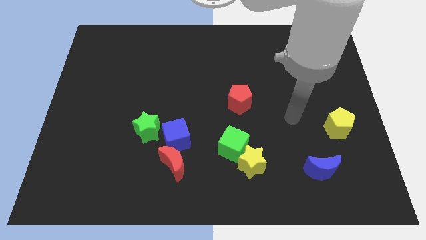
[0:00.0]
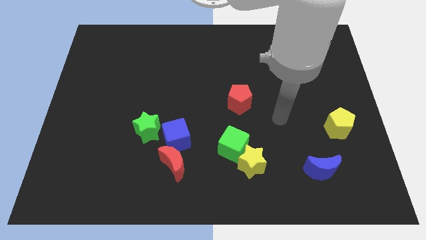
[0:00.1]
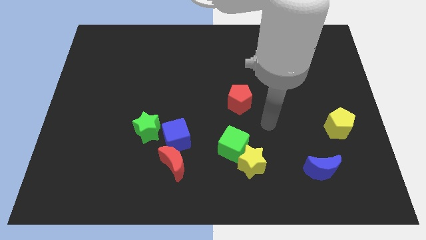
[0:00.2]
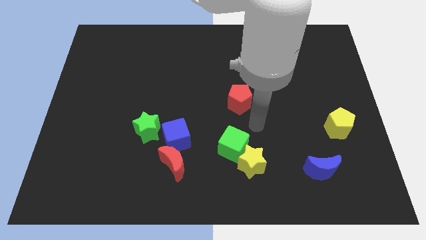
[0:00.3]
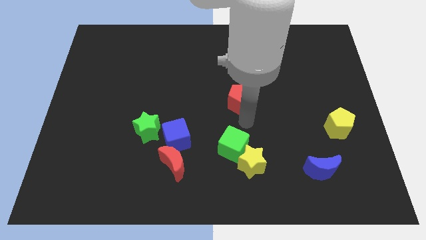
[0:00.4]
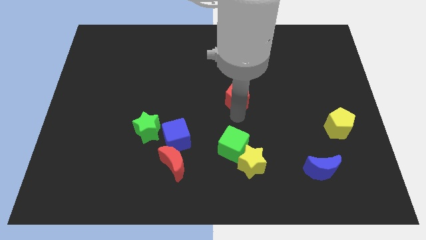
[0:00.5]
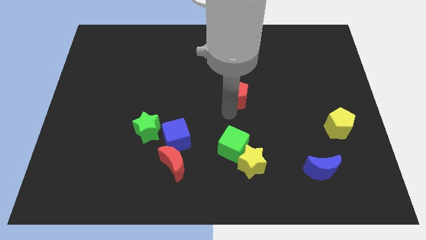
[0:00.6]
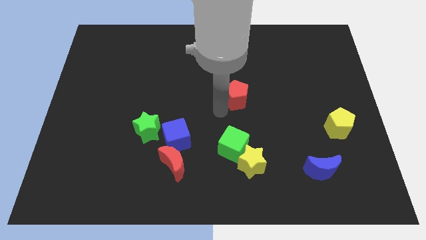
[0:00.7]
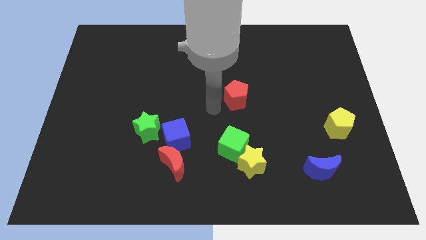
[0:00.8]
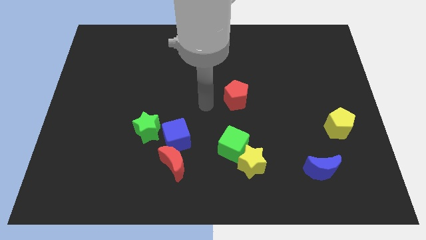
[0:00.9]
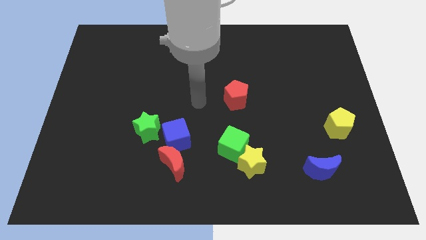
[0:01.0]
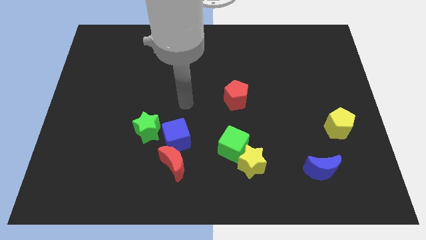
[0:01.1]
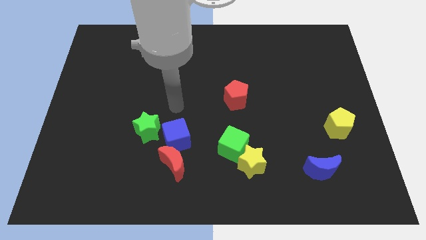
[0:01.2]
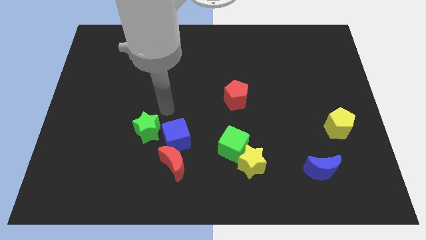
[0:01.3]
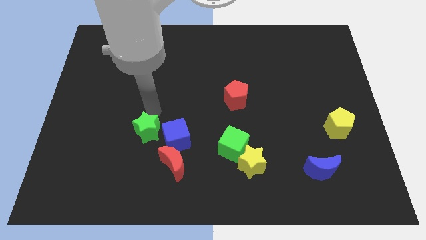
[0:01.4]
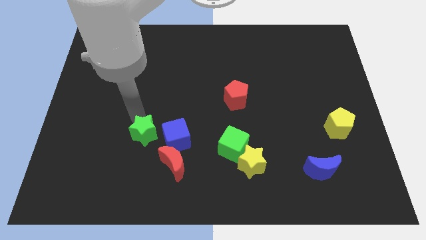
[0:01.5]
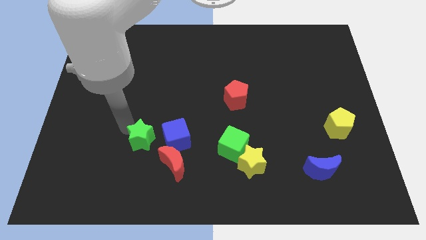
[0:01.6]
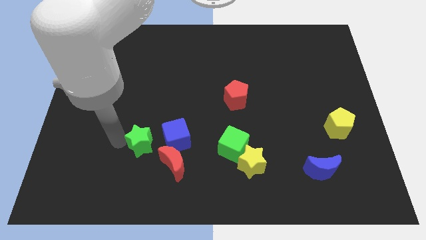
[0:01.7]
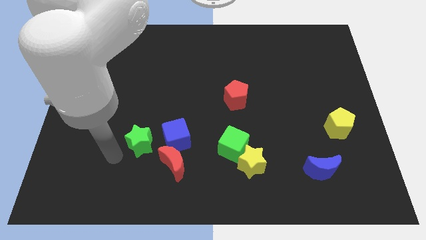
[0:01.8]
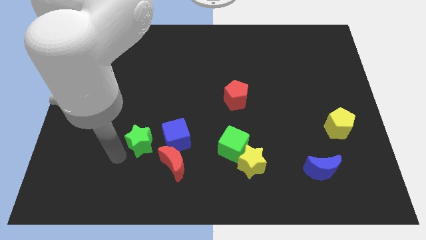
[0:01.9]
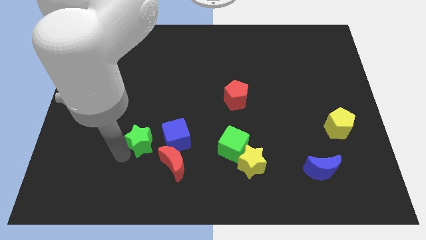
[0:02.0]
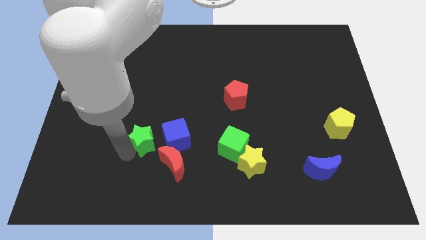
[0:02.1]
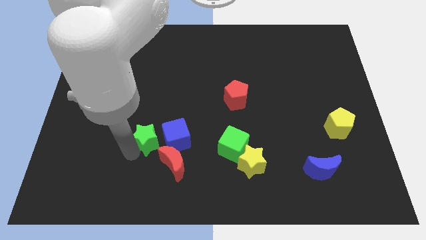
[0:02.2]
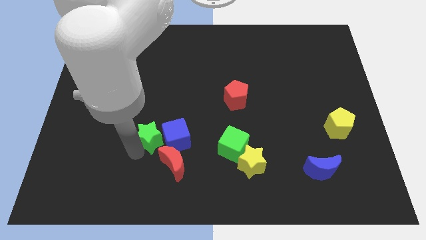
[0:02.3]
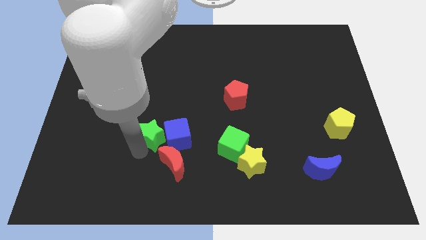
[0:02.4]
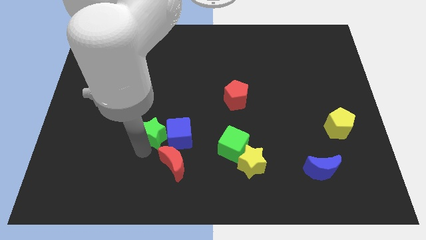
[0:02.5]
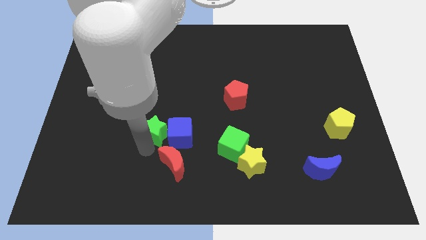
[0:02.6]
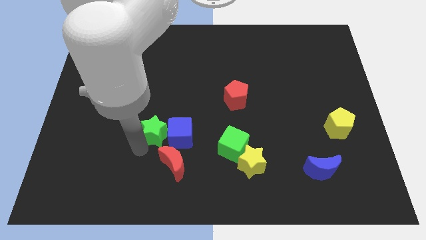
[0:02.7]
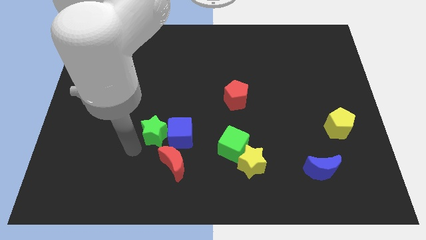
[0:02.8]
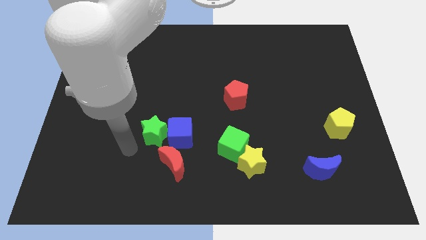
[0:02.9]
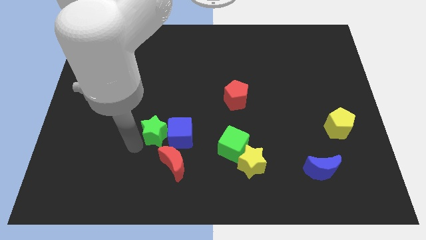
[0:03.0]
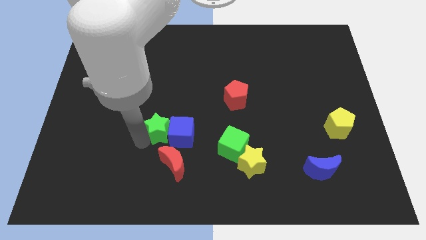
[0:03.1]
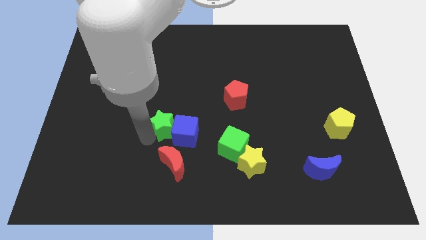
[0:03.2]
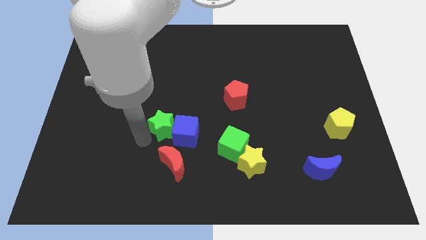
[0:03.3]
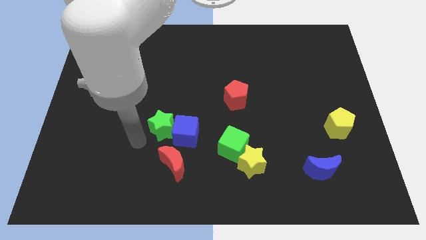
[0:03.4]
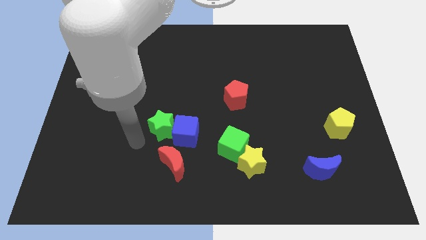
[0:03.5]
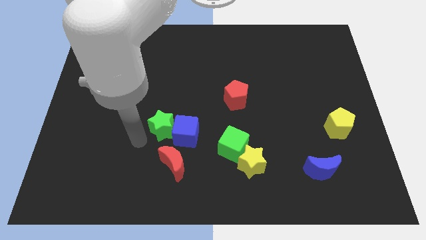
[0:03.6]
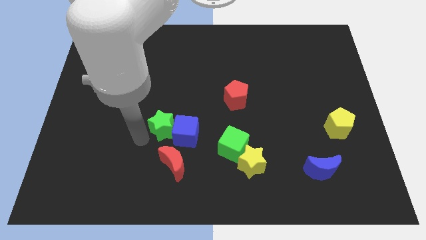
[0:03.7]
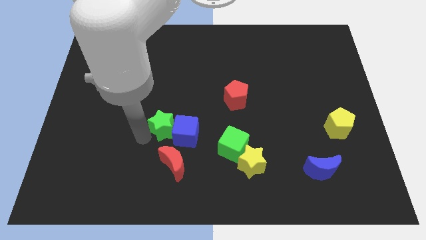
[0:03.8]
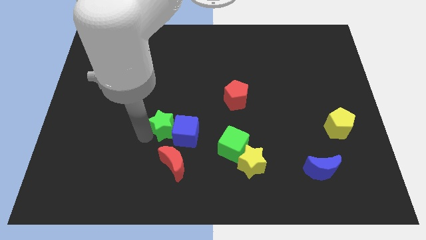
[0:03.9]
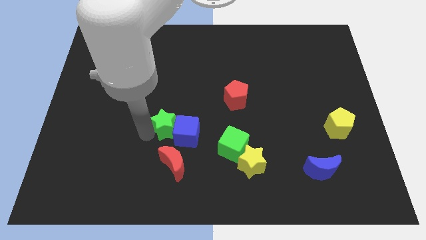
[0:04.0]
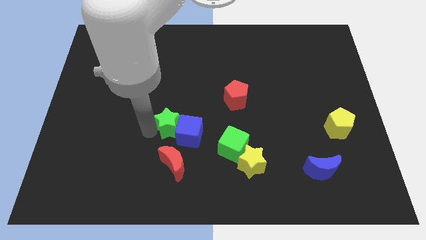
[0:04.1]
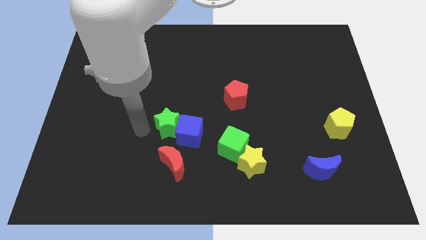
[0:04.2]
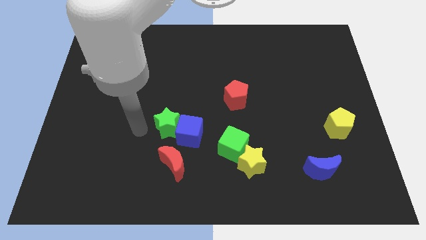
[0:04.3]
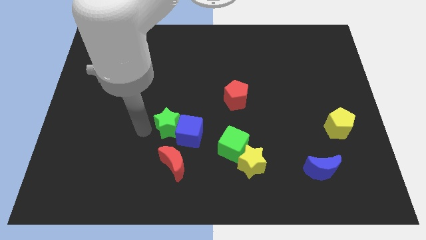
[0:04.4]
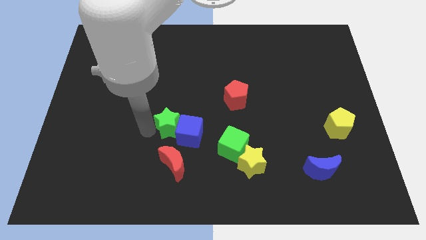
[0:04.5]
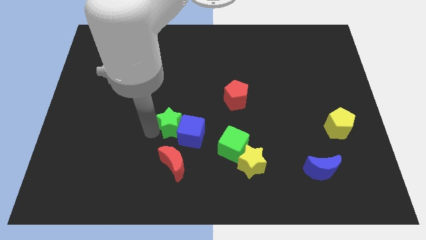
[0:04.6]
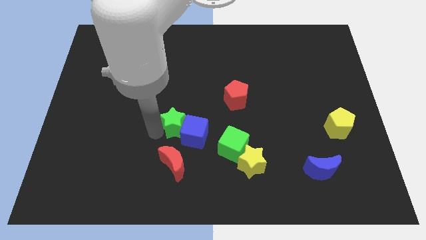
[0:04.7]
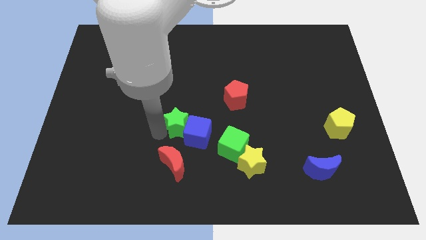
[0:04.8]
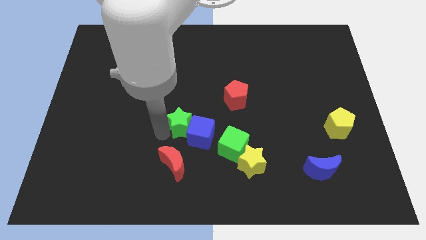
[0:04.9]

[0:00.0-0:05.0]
move the green star to the right a little bit

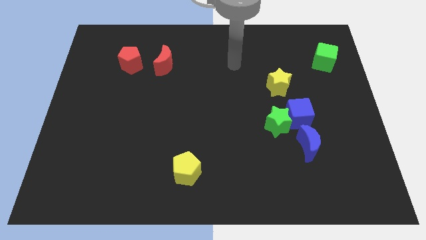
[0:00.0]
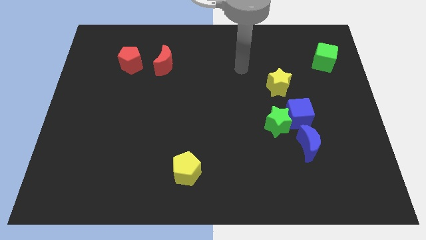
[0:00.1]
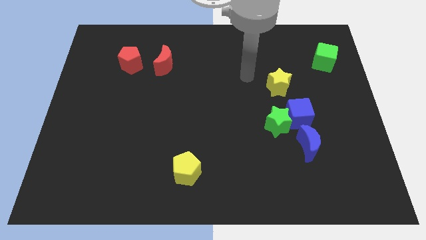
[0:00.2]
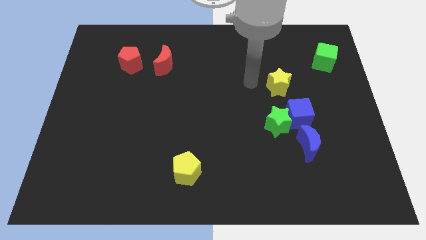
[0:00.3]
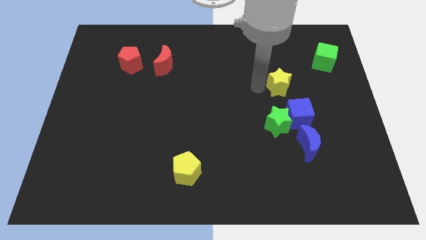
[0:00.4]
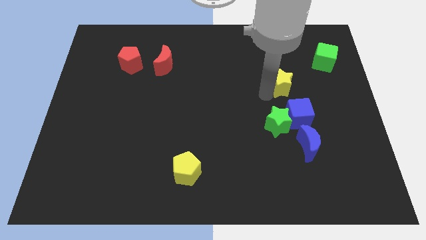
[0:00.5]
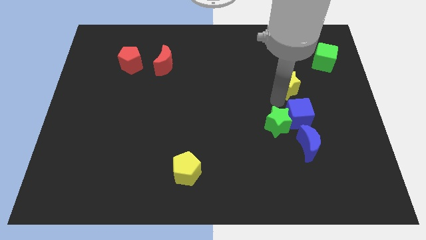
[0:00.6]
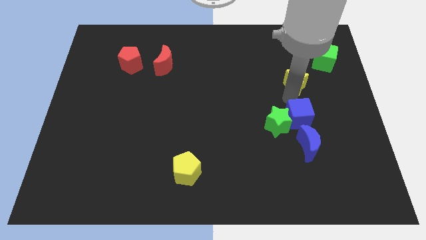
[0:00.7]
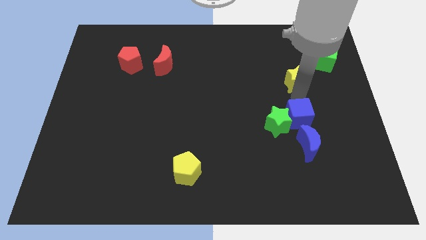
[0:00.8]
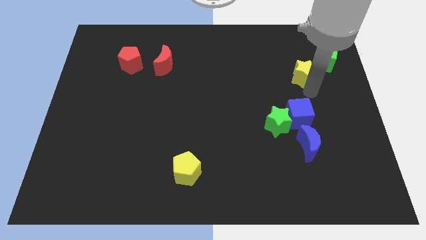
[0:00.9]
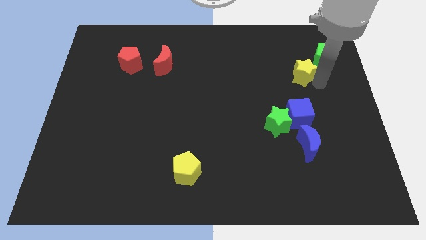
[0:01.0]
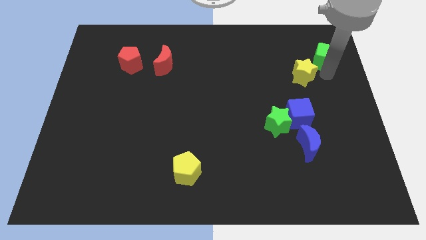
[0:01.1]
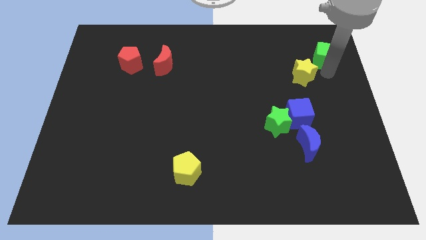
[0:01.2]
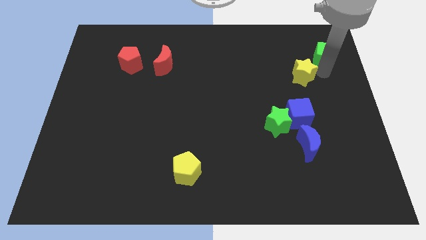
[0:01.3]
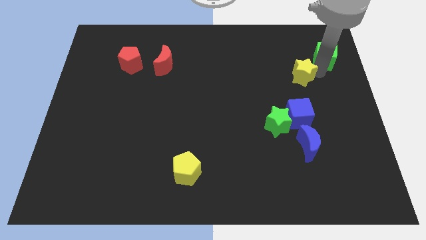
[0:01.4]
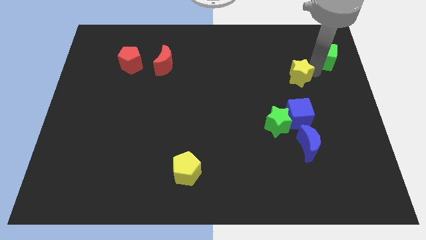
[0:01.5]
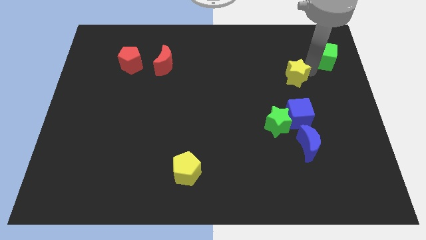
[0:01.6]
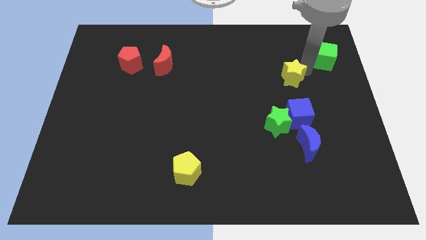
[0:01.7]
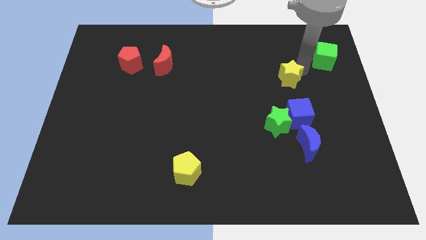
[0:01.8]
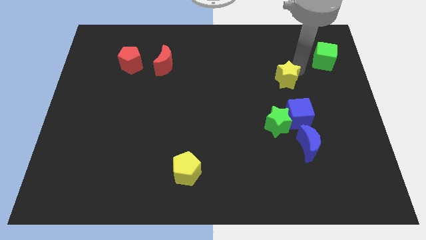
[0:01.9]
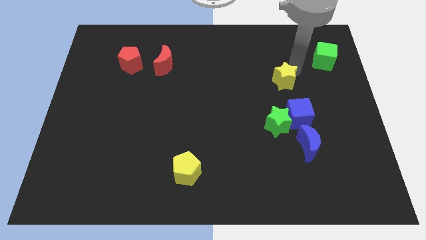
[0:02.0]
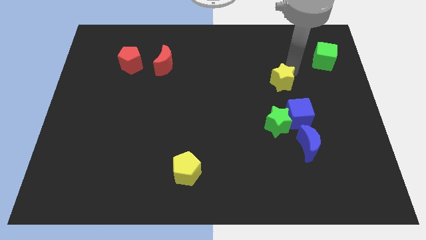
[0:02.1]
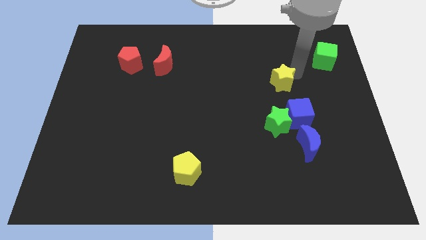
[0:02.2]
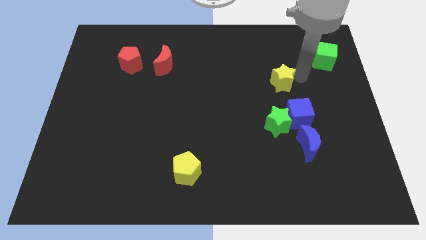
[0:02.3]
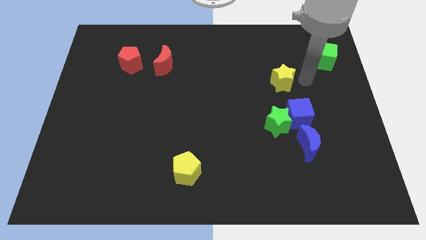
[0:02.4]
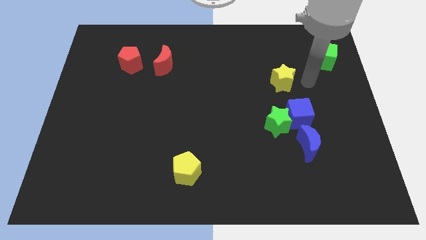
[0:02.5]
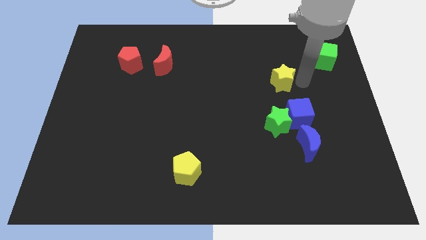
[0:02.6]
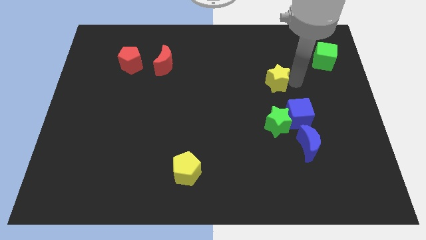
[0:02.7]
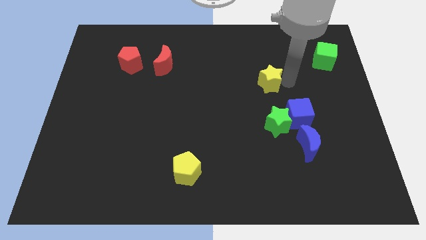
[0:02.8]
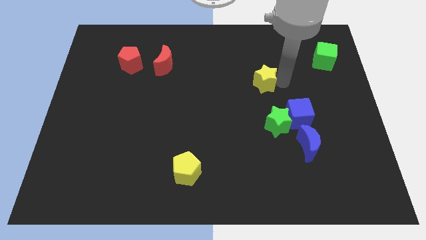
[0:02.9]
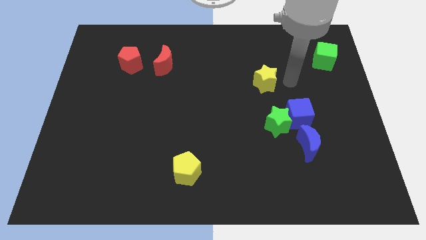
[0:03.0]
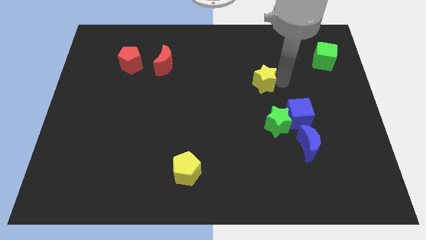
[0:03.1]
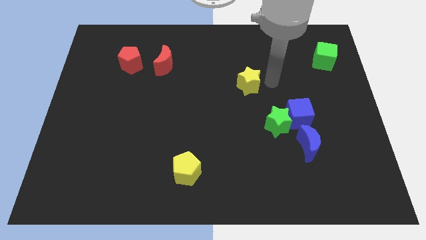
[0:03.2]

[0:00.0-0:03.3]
slide the yellow star to the left a little bit

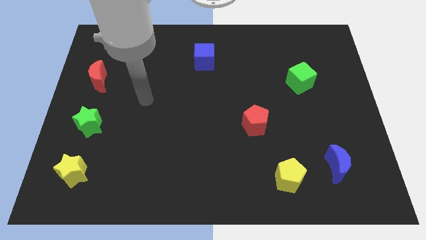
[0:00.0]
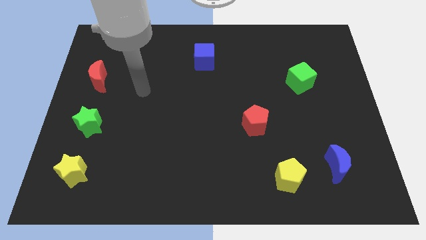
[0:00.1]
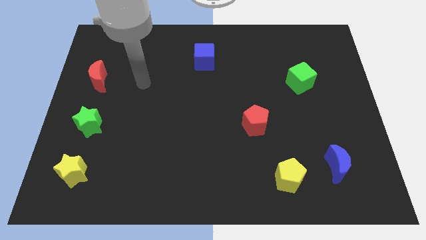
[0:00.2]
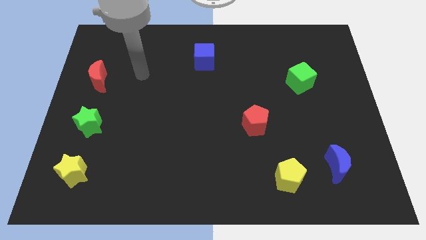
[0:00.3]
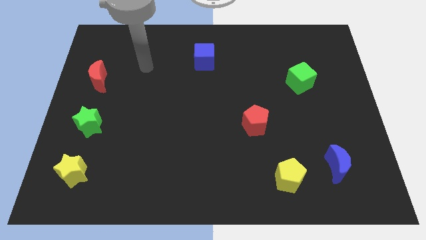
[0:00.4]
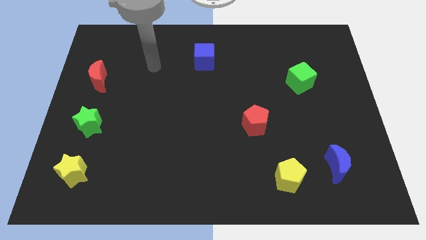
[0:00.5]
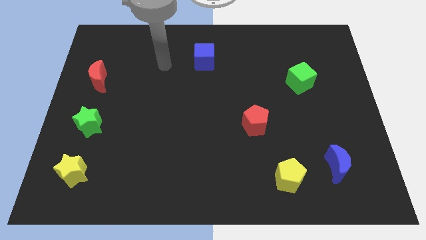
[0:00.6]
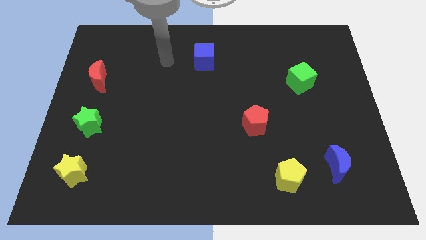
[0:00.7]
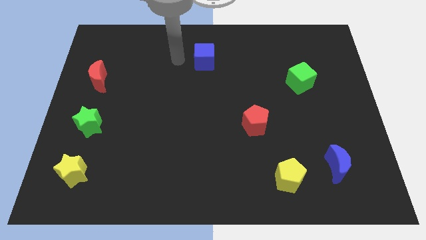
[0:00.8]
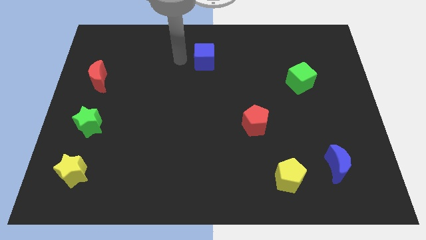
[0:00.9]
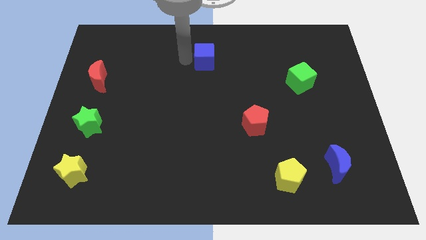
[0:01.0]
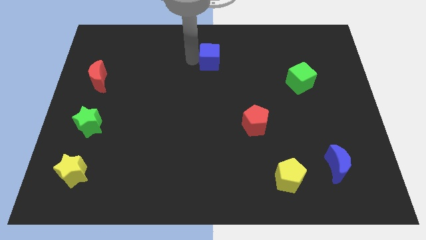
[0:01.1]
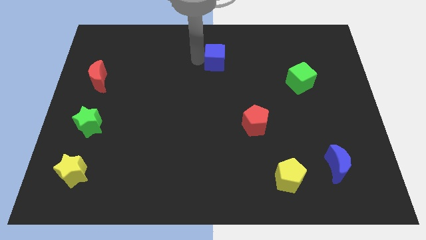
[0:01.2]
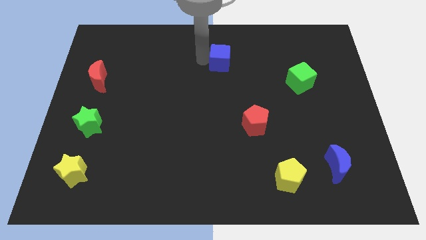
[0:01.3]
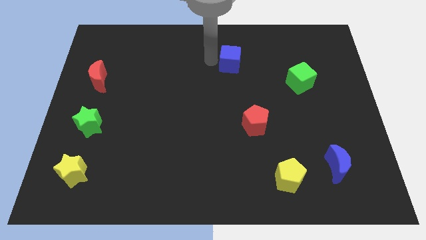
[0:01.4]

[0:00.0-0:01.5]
move the blue cube to the right slightly
